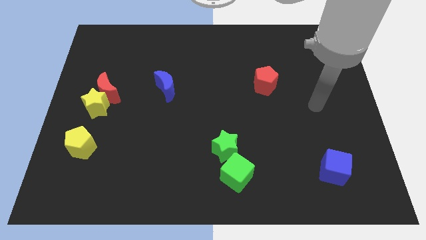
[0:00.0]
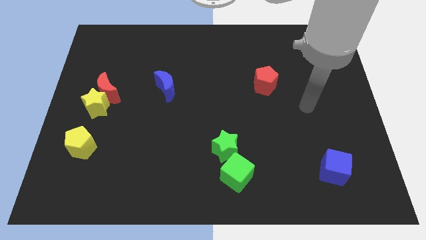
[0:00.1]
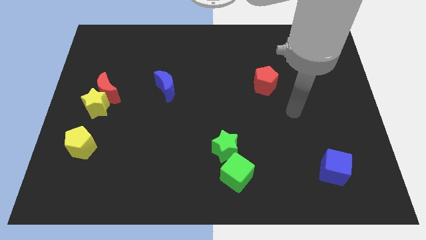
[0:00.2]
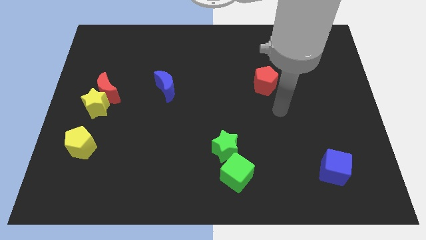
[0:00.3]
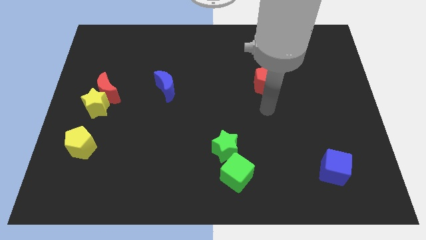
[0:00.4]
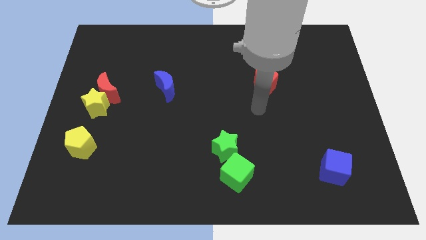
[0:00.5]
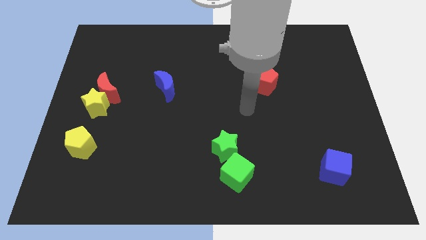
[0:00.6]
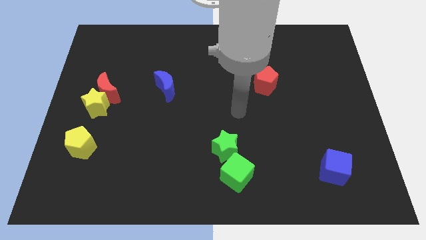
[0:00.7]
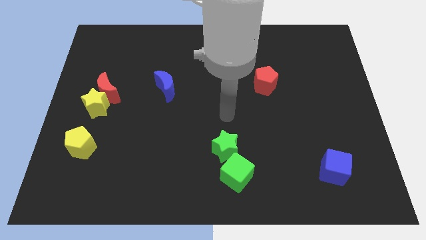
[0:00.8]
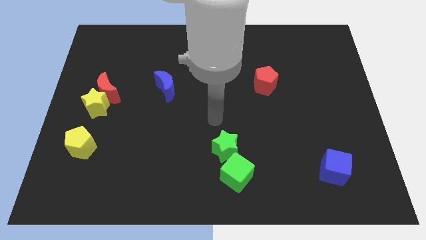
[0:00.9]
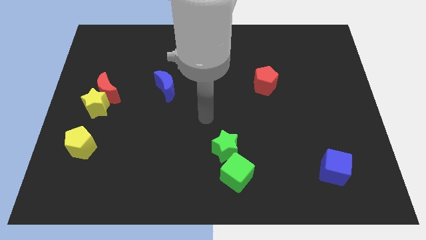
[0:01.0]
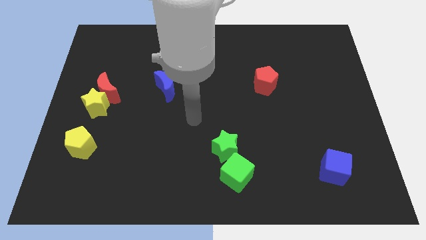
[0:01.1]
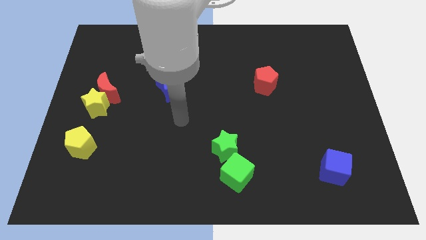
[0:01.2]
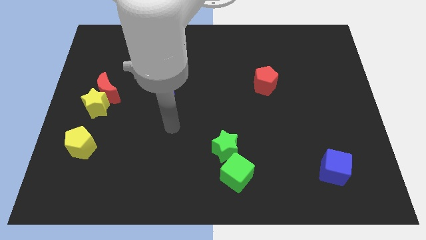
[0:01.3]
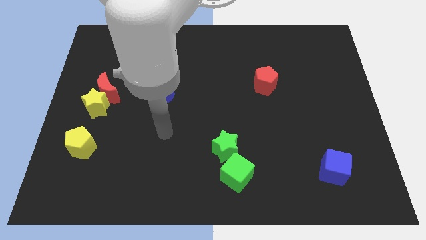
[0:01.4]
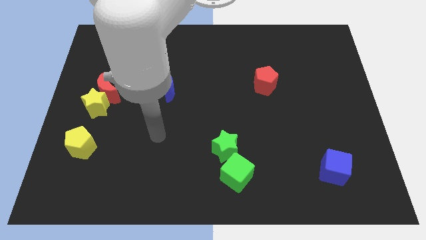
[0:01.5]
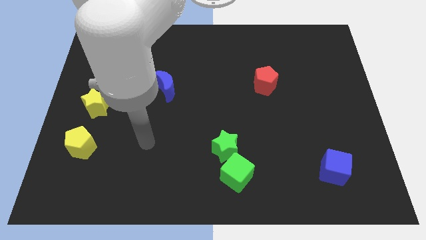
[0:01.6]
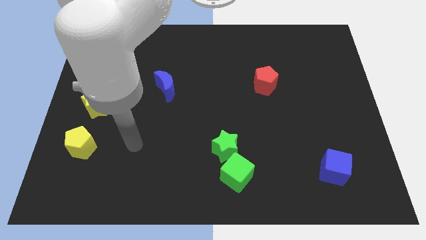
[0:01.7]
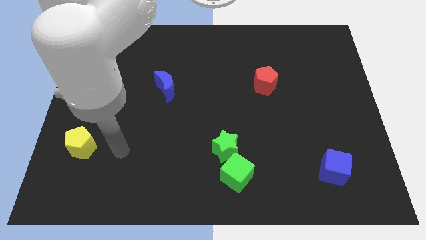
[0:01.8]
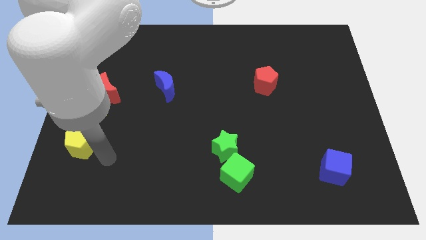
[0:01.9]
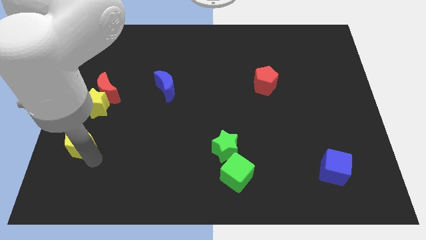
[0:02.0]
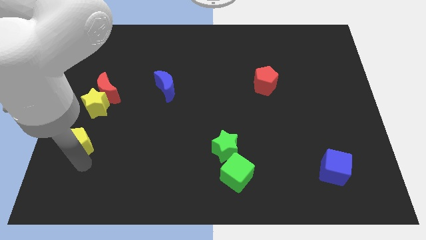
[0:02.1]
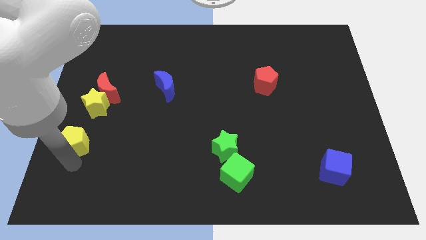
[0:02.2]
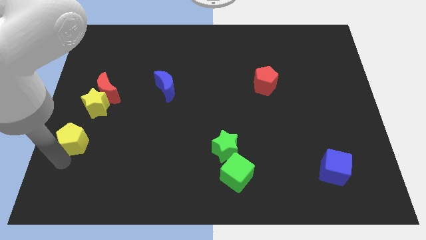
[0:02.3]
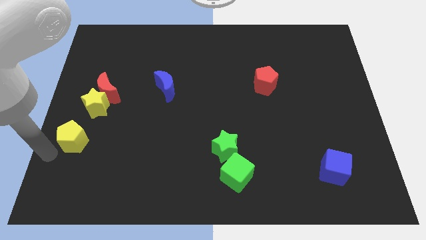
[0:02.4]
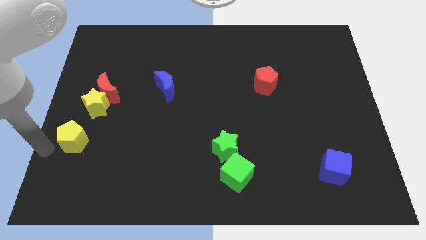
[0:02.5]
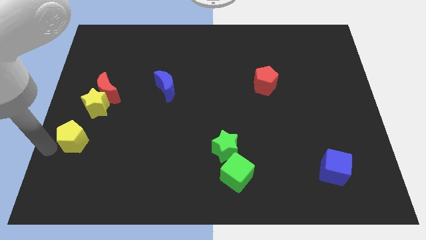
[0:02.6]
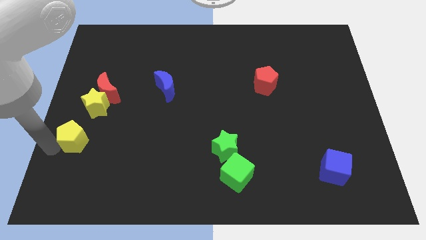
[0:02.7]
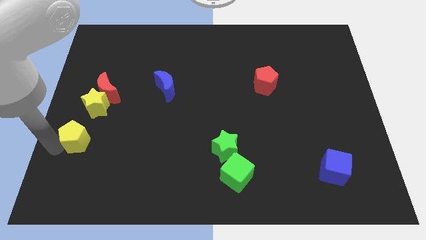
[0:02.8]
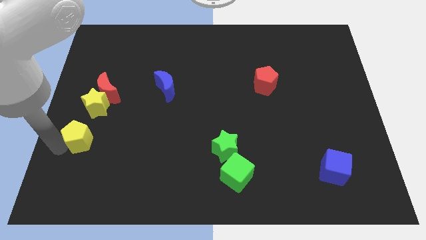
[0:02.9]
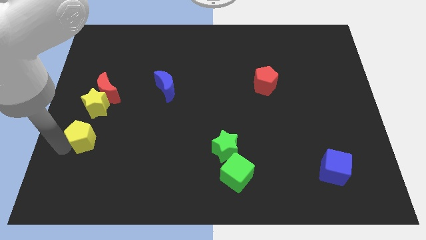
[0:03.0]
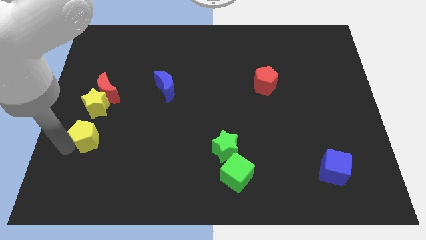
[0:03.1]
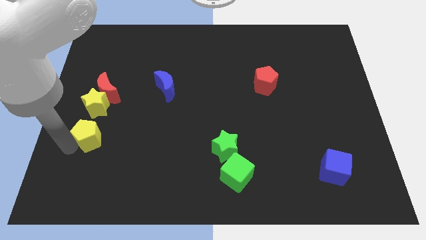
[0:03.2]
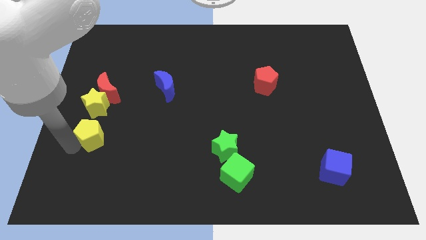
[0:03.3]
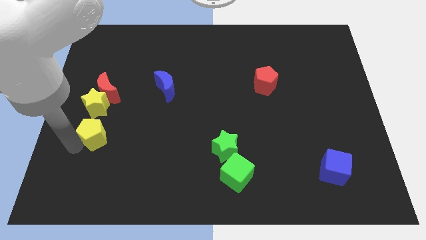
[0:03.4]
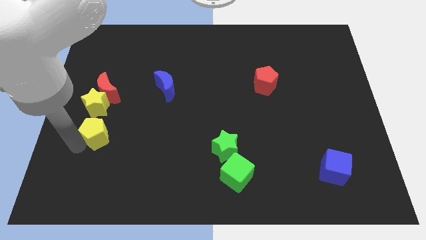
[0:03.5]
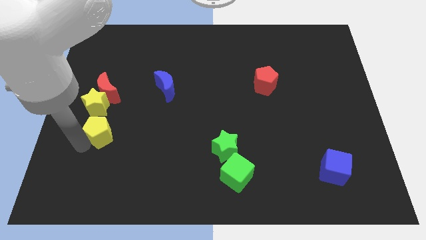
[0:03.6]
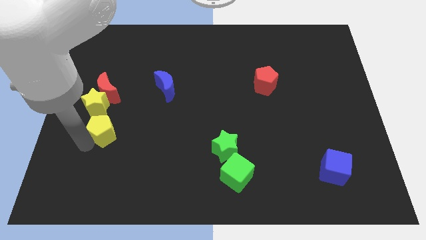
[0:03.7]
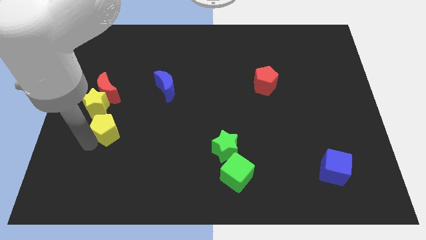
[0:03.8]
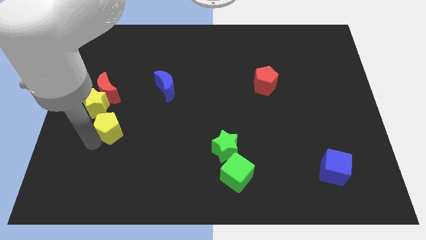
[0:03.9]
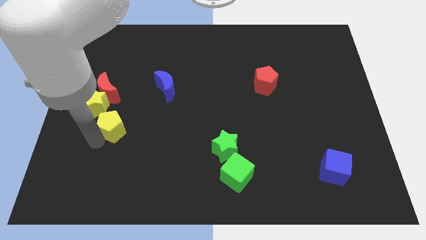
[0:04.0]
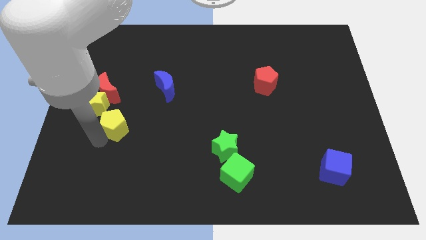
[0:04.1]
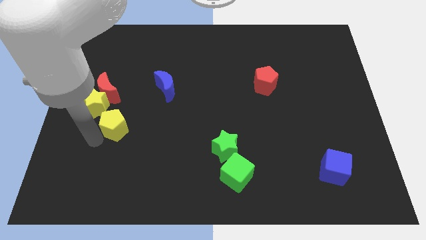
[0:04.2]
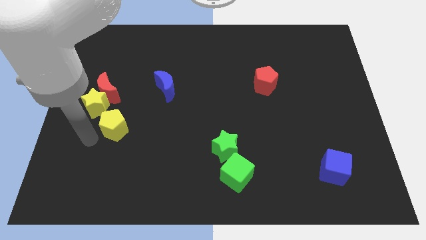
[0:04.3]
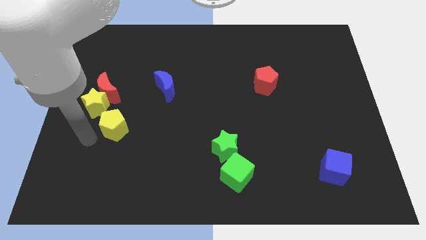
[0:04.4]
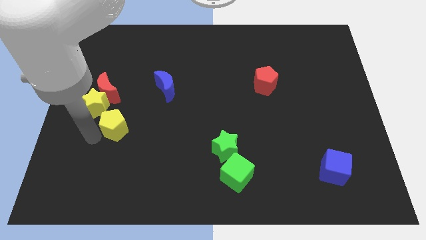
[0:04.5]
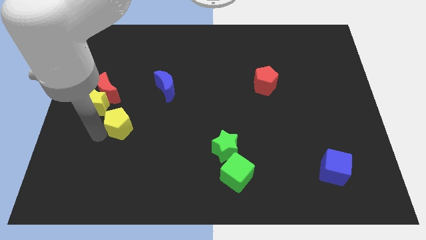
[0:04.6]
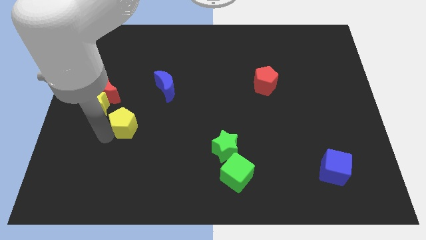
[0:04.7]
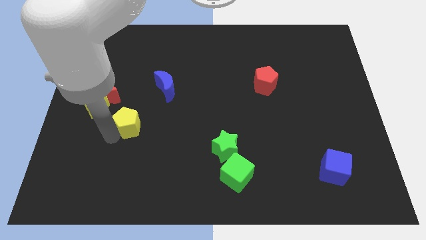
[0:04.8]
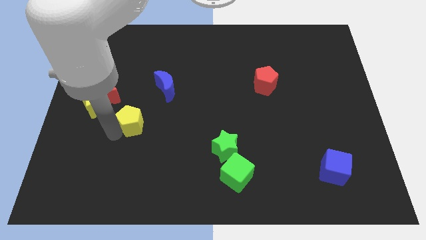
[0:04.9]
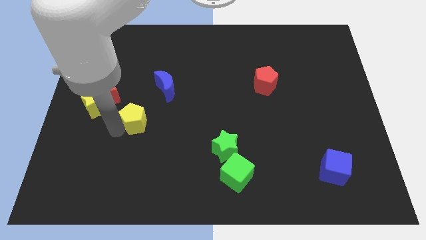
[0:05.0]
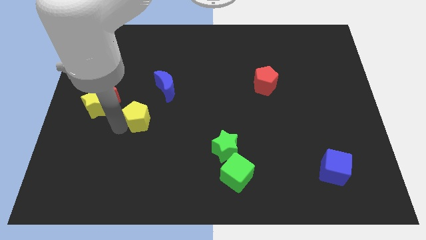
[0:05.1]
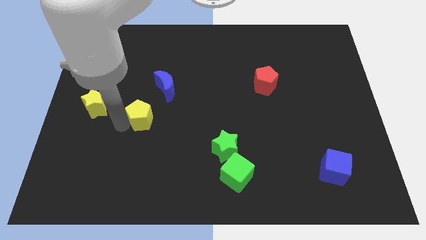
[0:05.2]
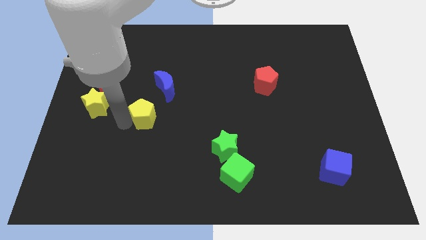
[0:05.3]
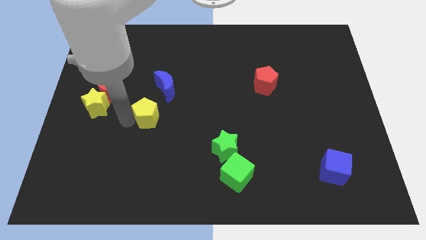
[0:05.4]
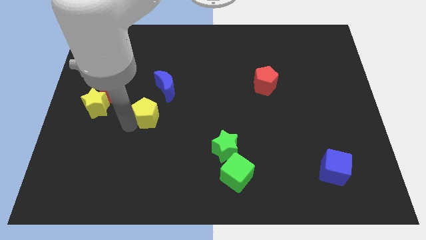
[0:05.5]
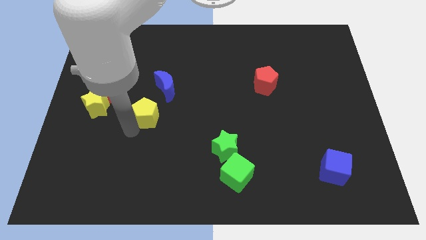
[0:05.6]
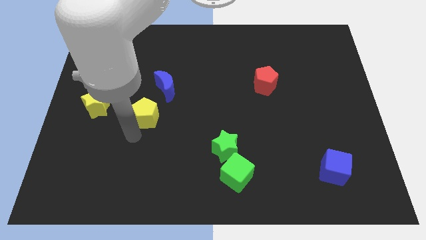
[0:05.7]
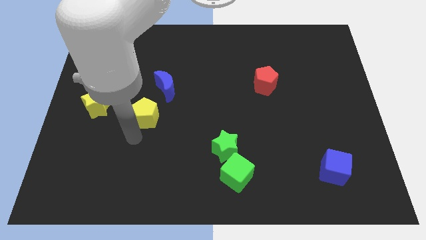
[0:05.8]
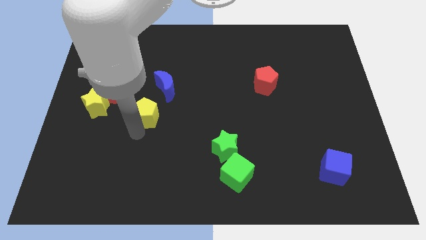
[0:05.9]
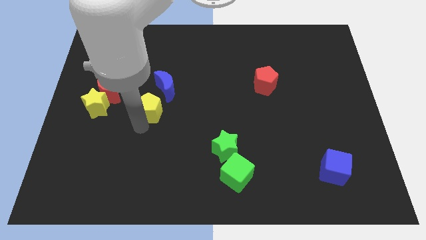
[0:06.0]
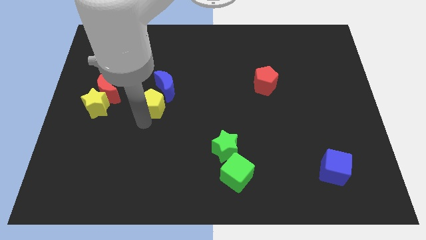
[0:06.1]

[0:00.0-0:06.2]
move the yellow pentagon next to the blue moon

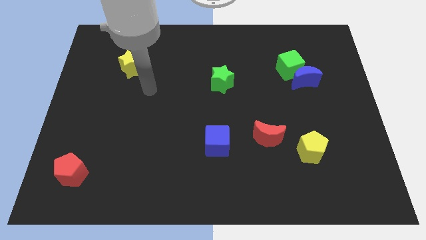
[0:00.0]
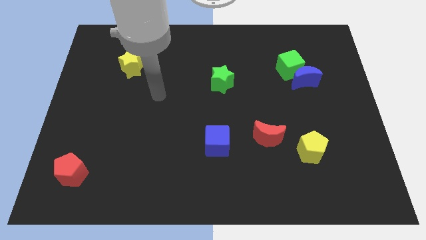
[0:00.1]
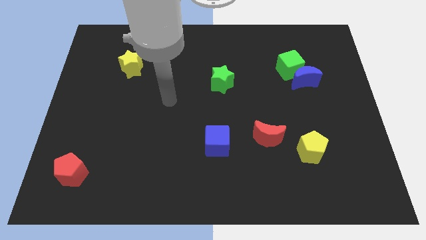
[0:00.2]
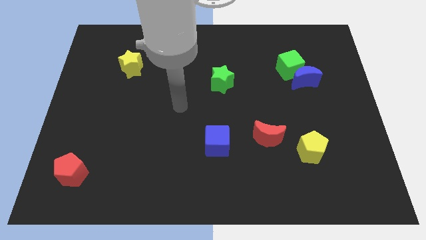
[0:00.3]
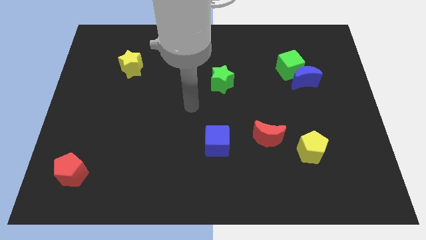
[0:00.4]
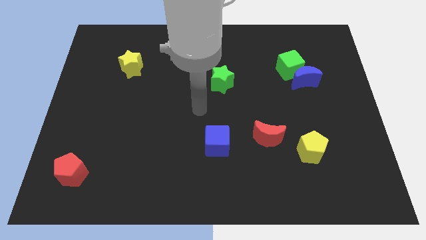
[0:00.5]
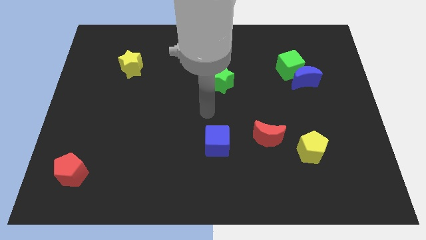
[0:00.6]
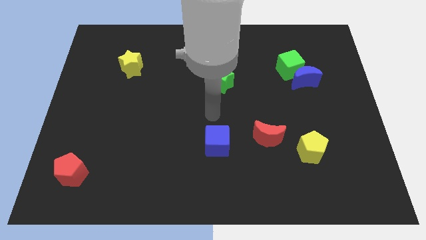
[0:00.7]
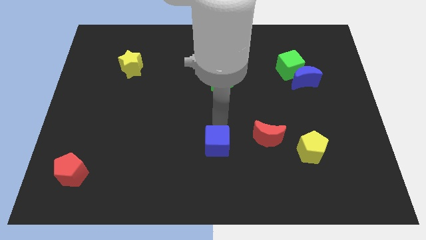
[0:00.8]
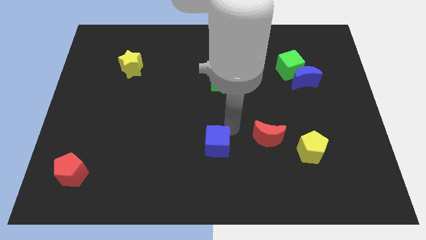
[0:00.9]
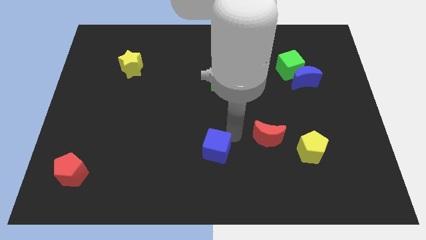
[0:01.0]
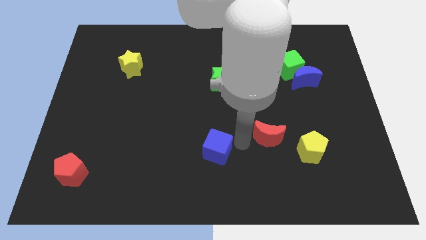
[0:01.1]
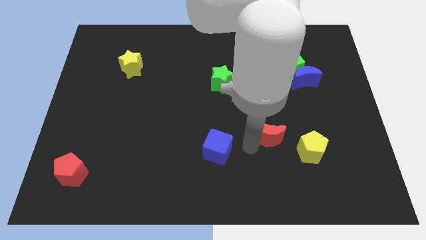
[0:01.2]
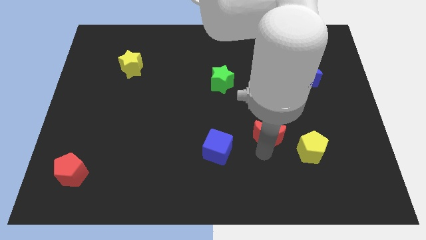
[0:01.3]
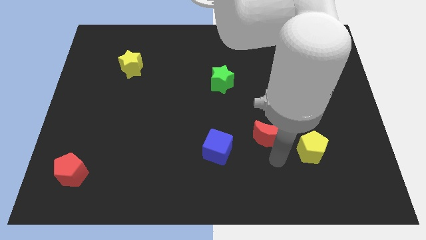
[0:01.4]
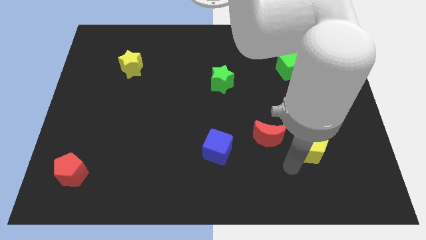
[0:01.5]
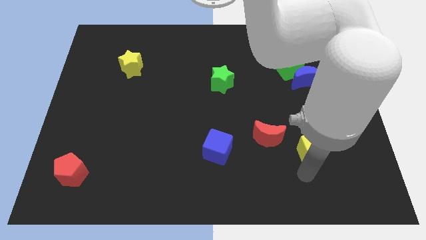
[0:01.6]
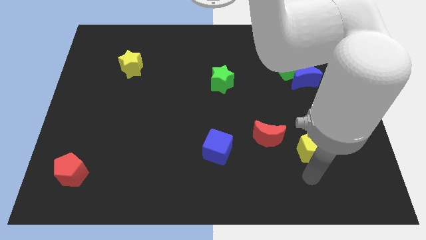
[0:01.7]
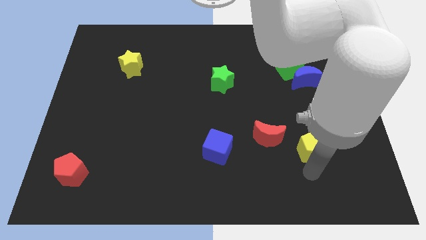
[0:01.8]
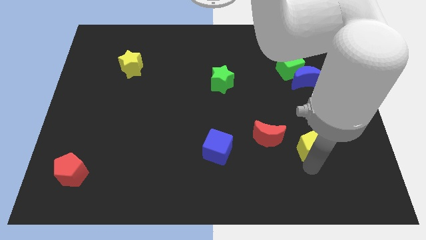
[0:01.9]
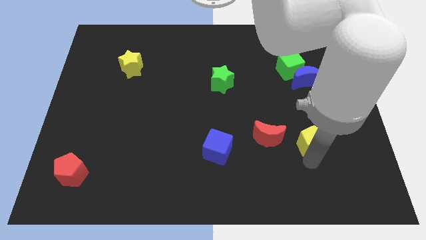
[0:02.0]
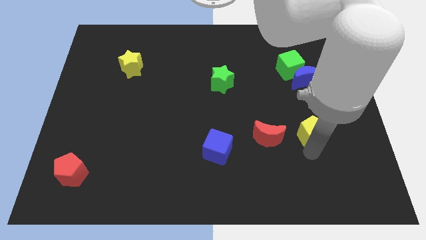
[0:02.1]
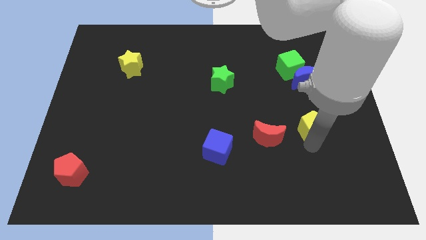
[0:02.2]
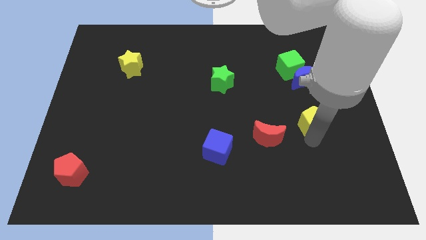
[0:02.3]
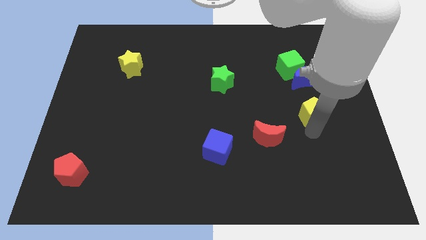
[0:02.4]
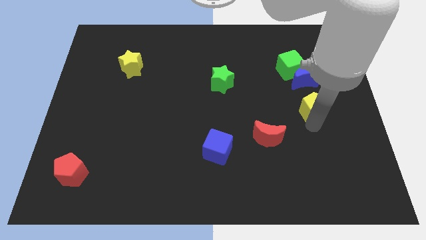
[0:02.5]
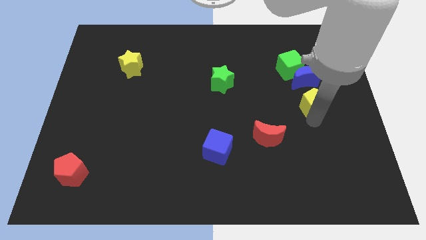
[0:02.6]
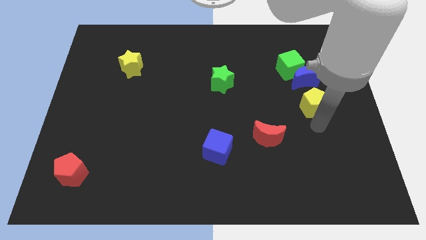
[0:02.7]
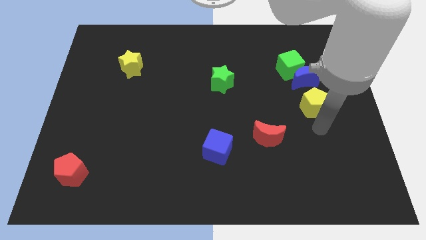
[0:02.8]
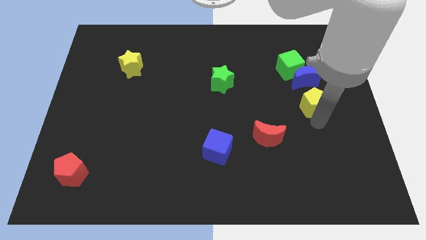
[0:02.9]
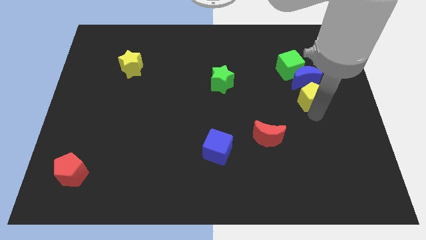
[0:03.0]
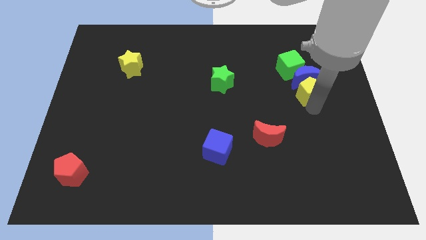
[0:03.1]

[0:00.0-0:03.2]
move the yellow pentagon to the blue moon
